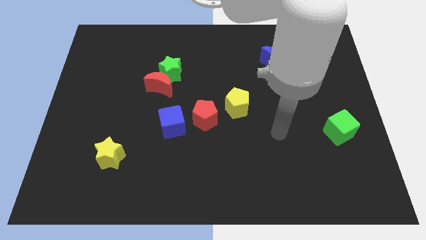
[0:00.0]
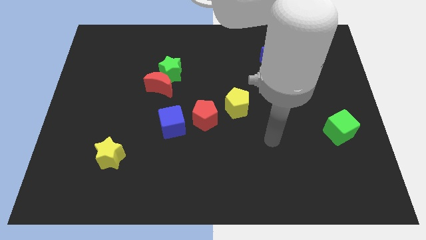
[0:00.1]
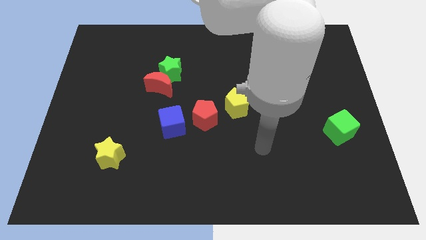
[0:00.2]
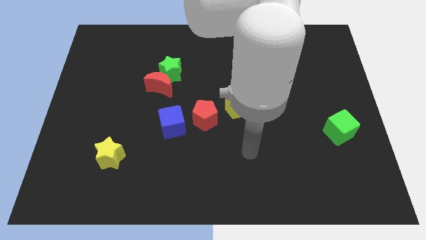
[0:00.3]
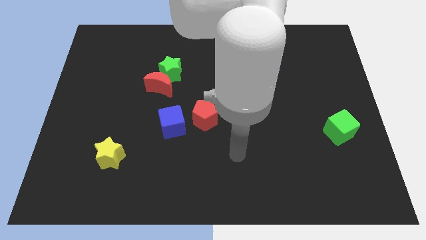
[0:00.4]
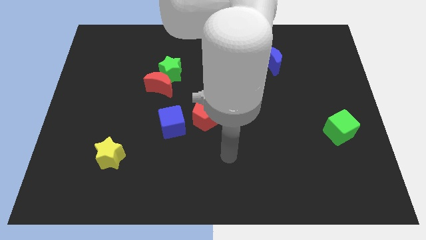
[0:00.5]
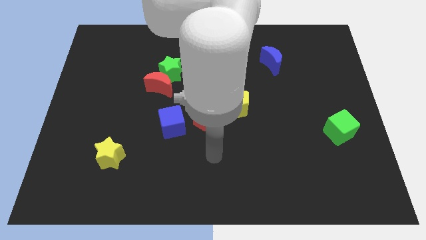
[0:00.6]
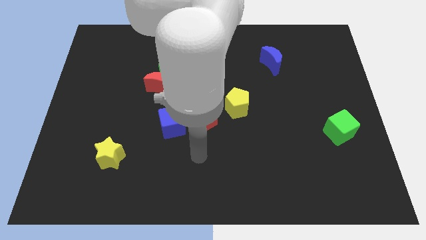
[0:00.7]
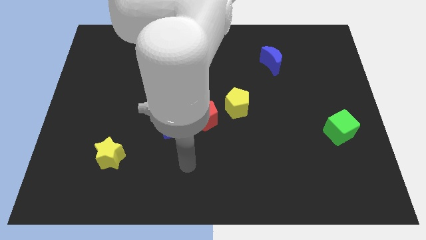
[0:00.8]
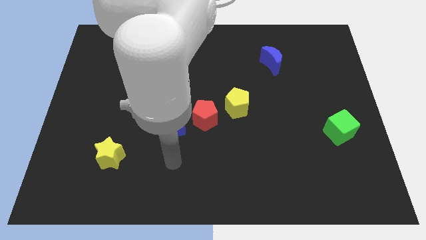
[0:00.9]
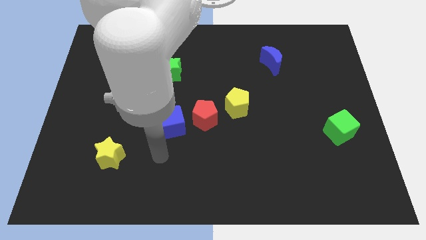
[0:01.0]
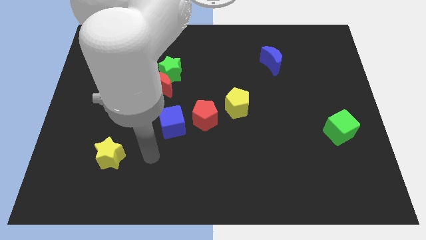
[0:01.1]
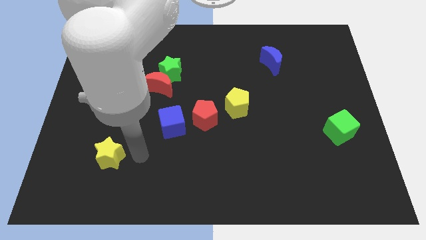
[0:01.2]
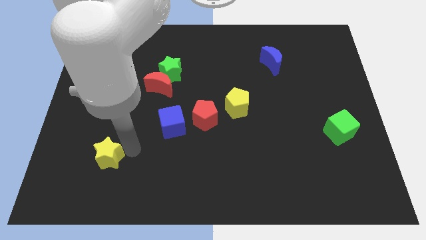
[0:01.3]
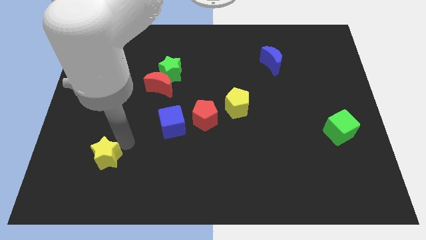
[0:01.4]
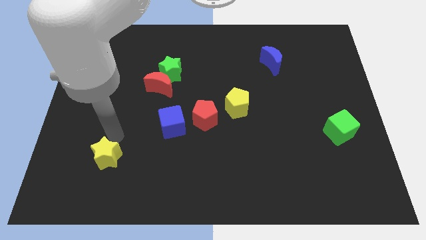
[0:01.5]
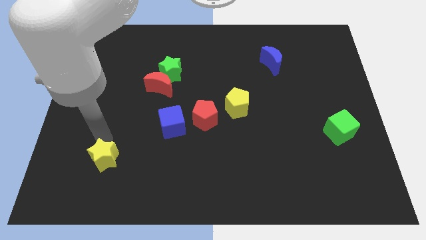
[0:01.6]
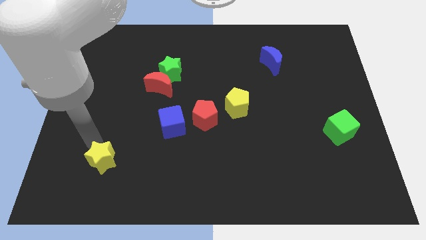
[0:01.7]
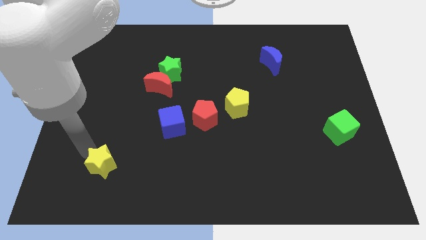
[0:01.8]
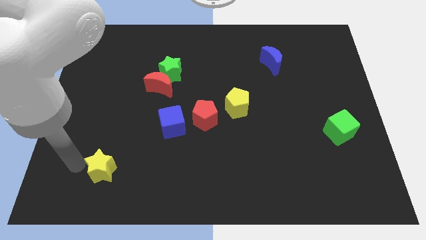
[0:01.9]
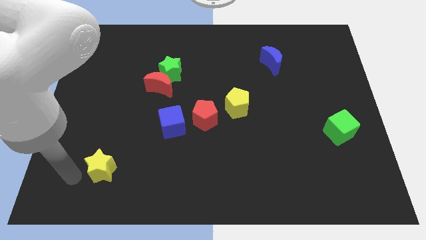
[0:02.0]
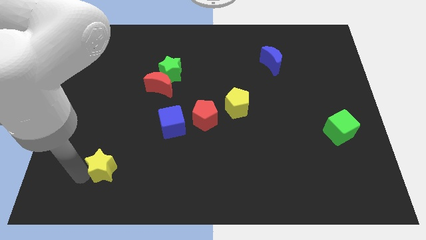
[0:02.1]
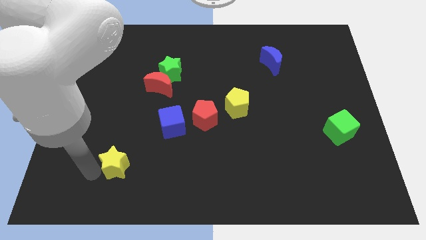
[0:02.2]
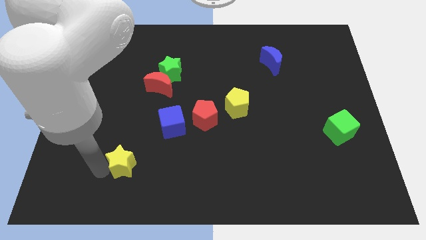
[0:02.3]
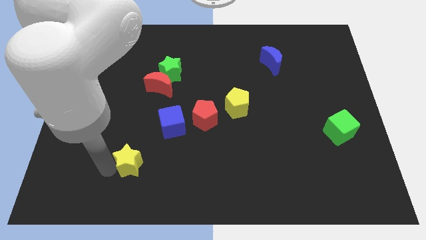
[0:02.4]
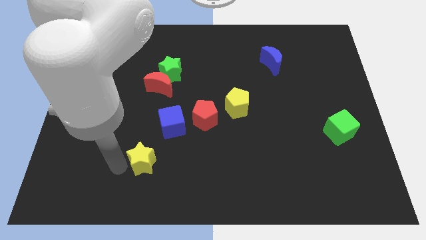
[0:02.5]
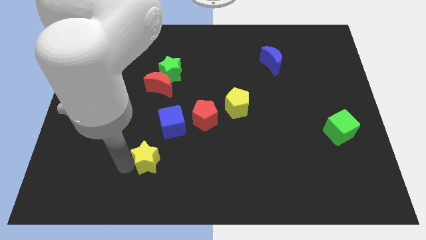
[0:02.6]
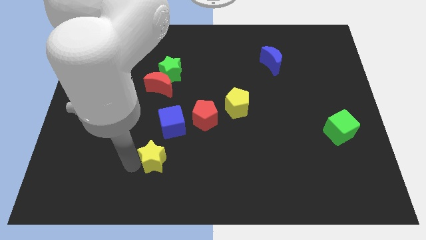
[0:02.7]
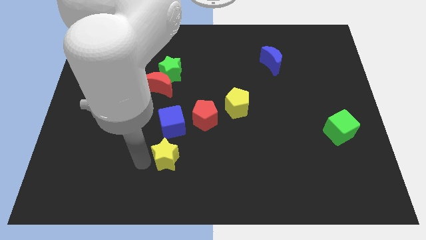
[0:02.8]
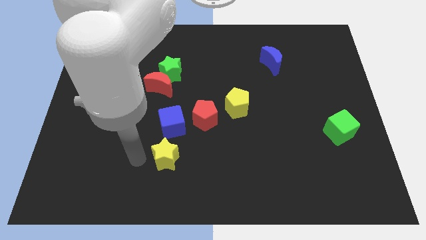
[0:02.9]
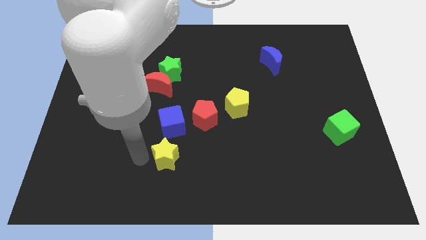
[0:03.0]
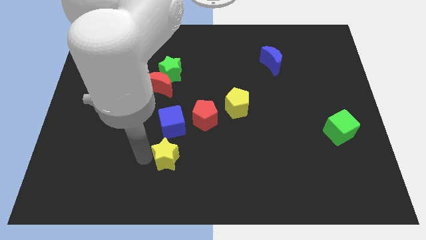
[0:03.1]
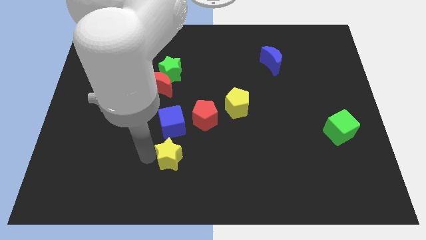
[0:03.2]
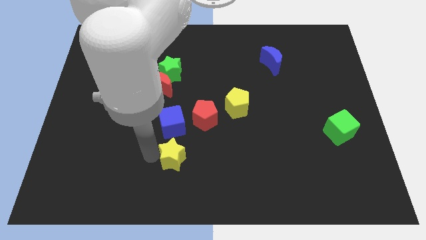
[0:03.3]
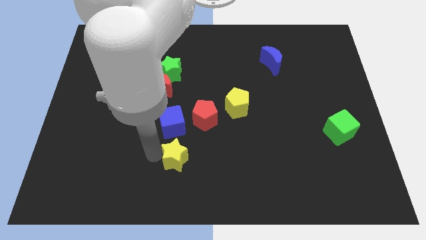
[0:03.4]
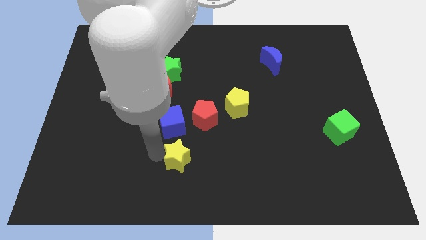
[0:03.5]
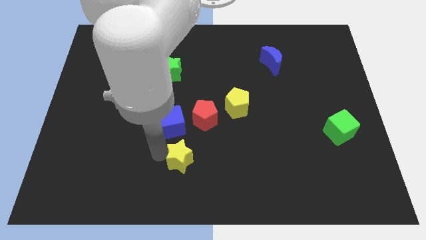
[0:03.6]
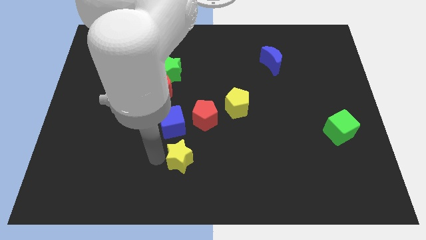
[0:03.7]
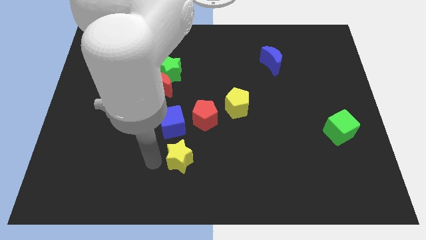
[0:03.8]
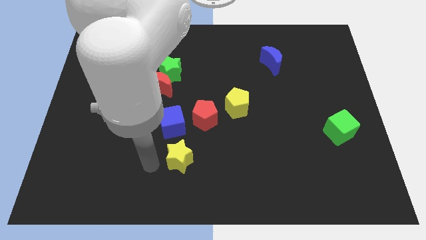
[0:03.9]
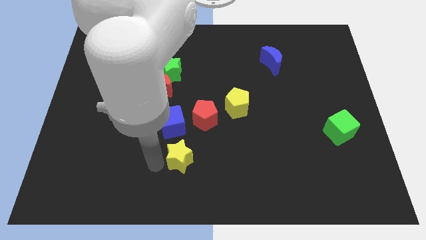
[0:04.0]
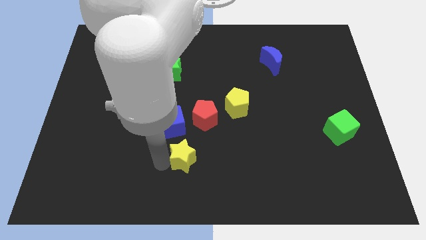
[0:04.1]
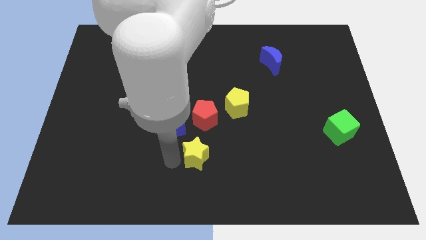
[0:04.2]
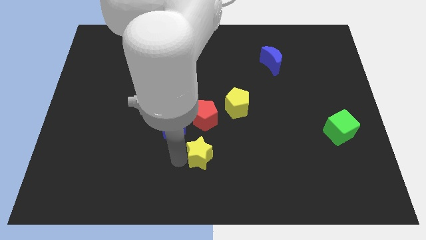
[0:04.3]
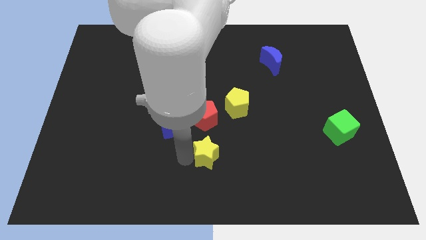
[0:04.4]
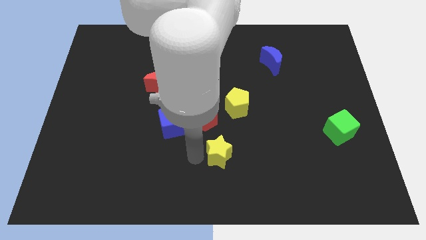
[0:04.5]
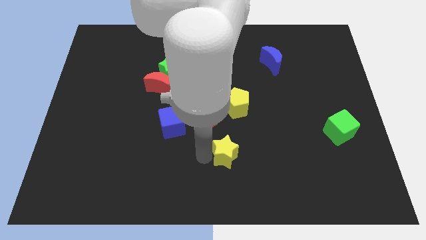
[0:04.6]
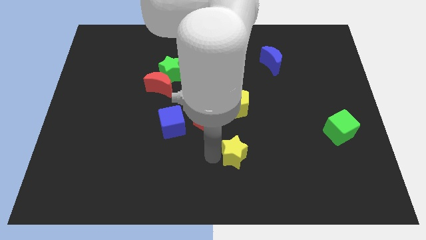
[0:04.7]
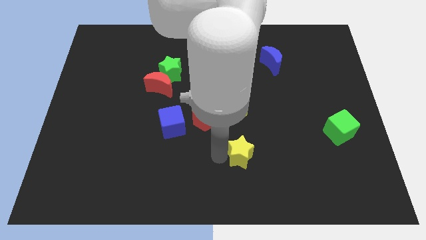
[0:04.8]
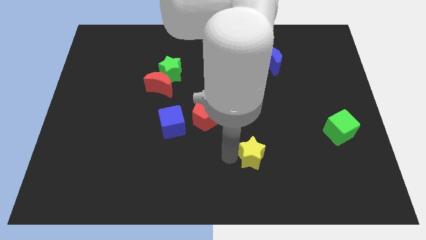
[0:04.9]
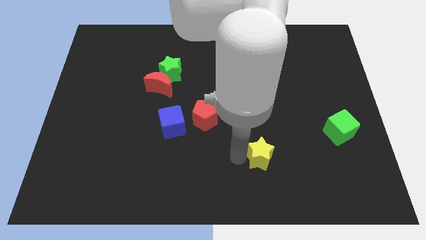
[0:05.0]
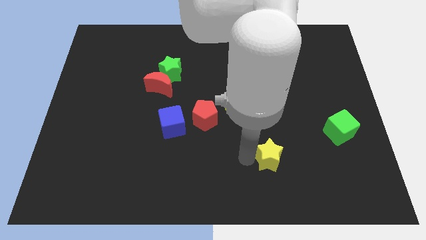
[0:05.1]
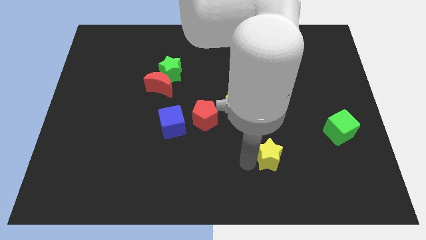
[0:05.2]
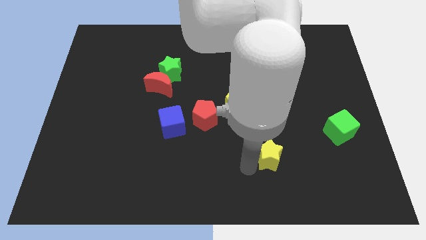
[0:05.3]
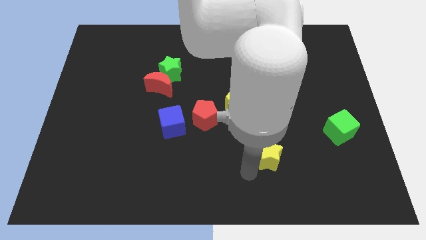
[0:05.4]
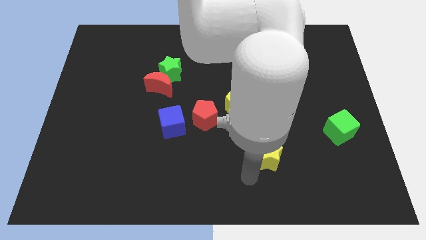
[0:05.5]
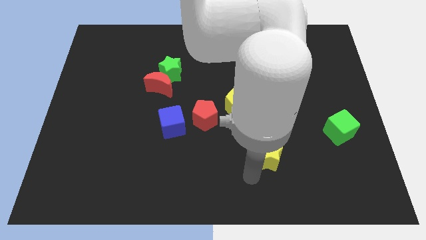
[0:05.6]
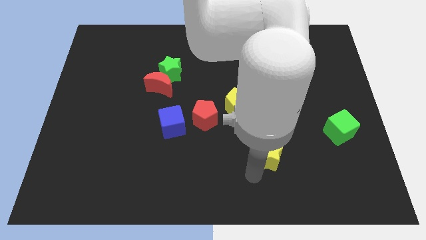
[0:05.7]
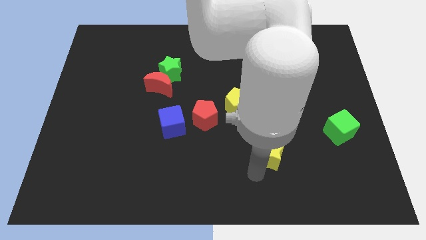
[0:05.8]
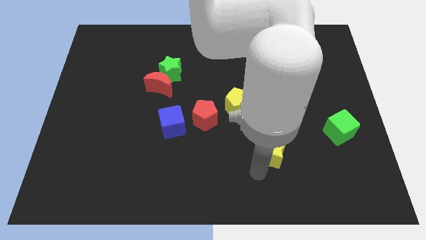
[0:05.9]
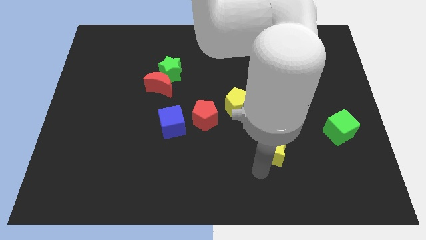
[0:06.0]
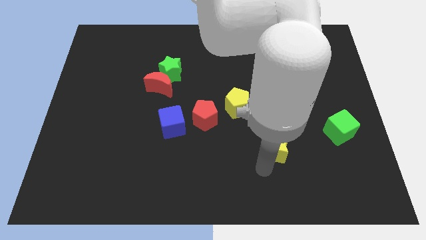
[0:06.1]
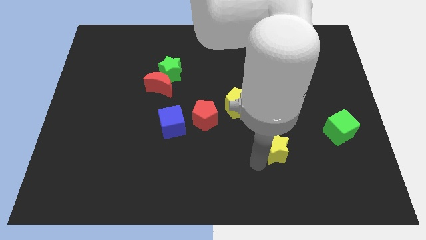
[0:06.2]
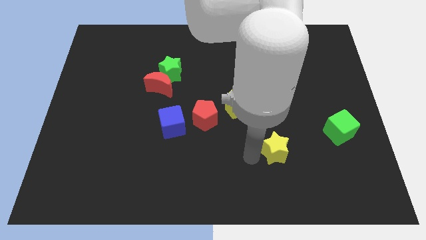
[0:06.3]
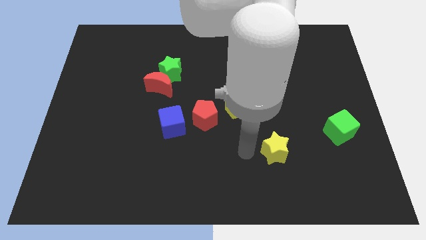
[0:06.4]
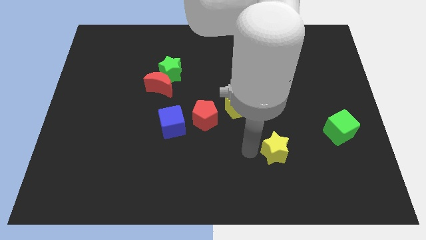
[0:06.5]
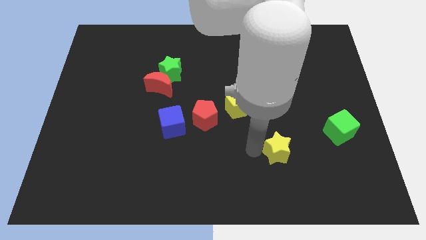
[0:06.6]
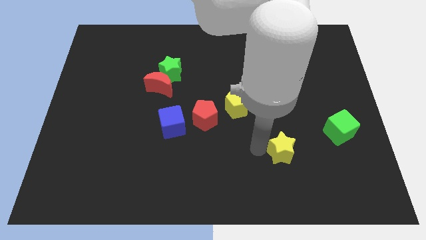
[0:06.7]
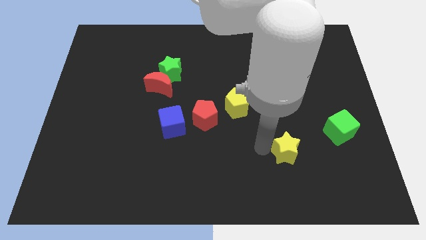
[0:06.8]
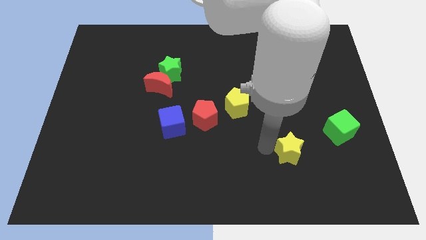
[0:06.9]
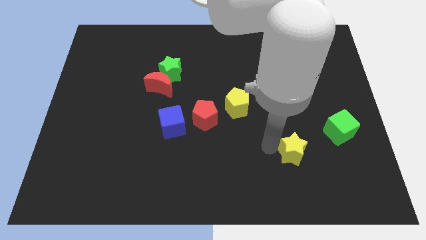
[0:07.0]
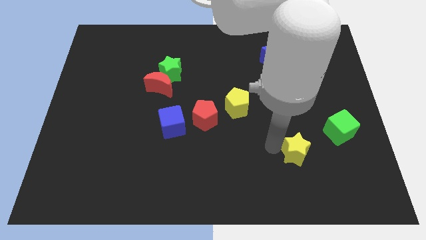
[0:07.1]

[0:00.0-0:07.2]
put the yellow star diagonally down and to the left of the green cube
